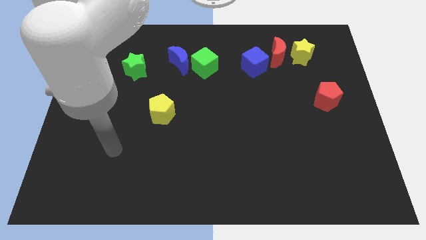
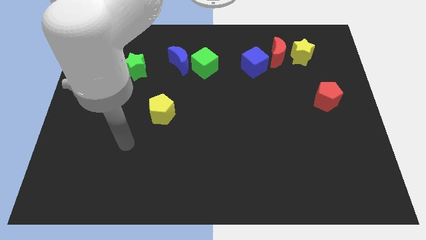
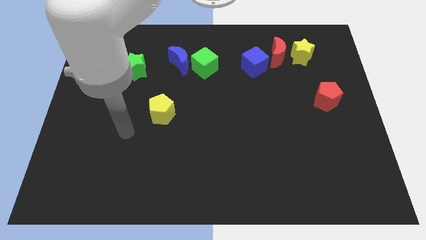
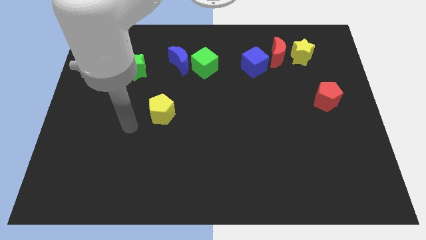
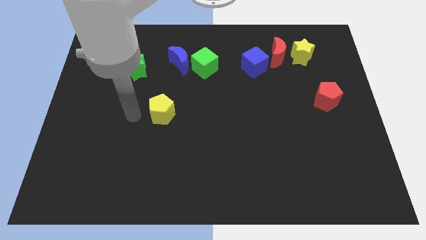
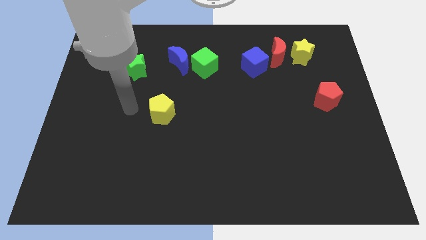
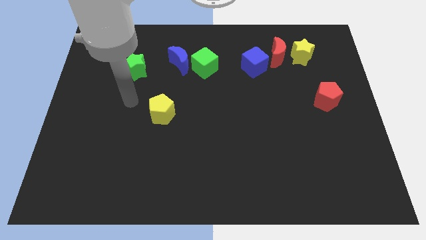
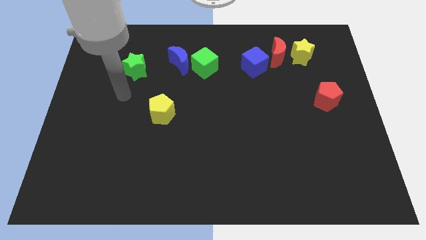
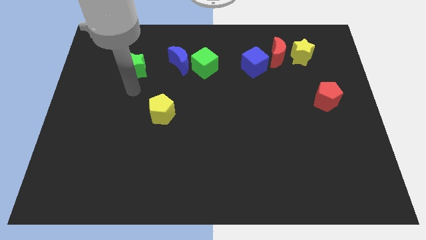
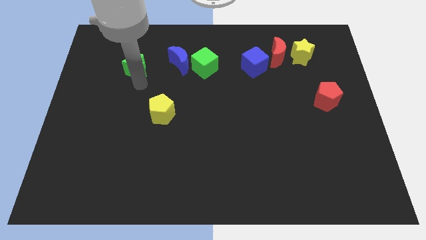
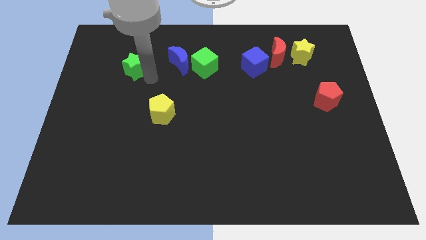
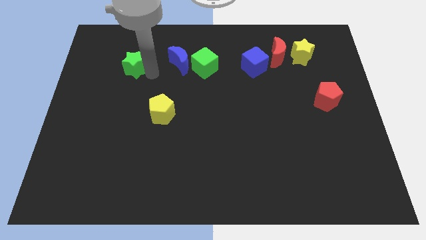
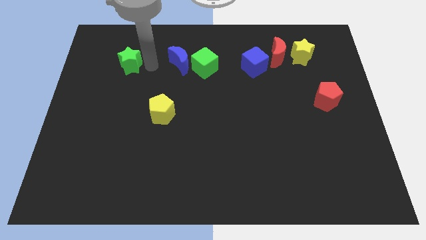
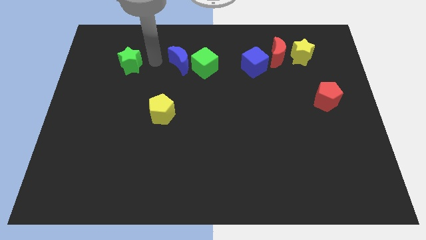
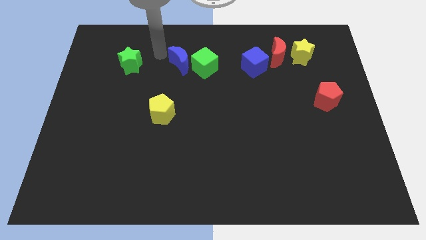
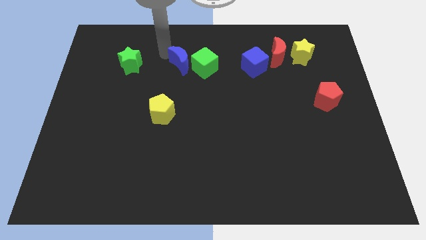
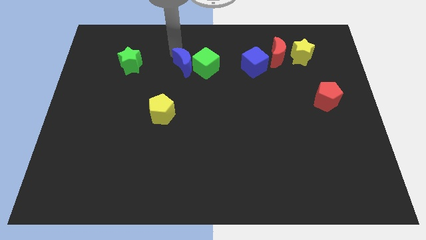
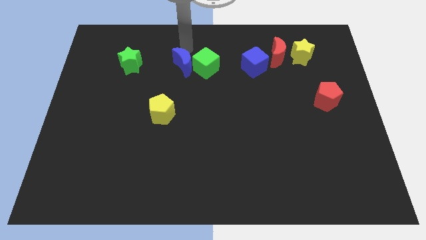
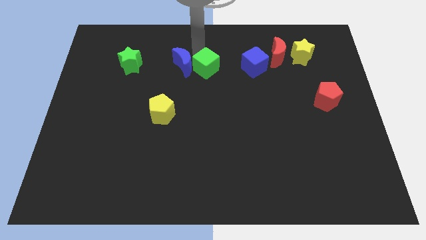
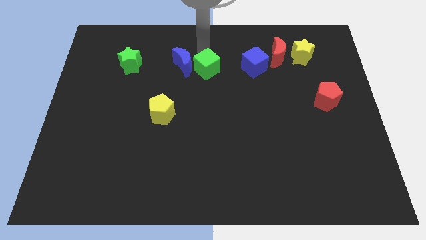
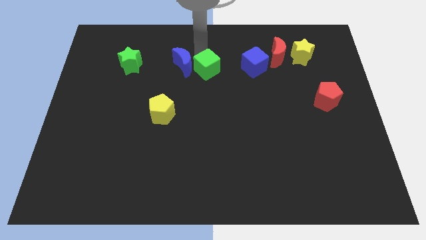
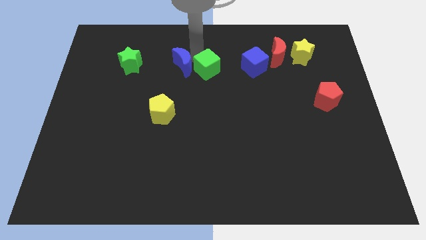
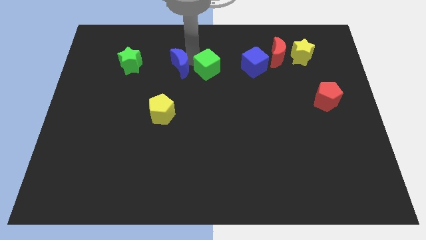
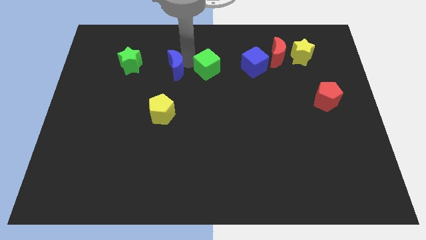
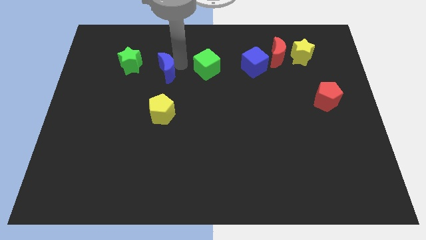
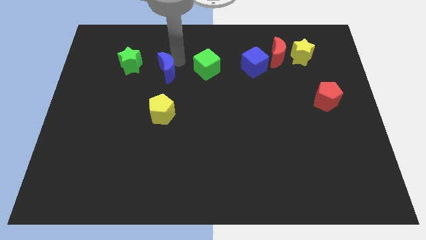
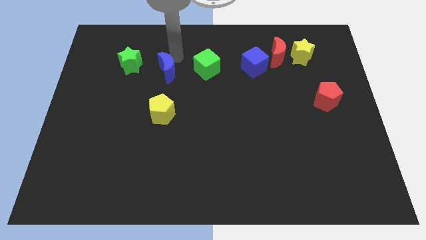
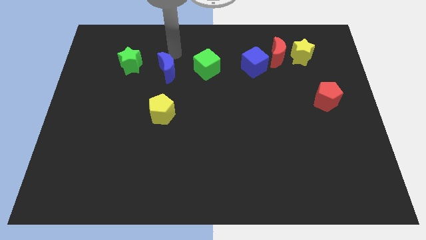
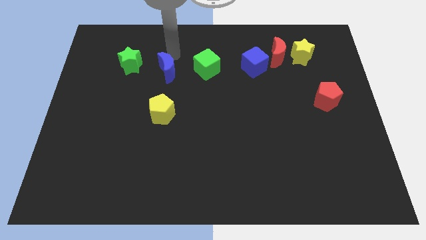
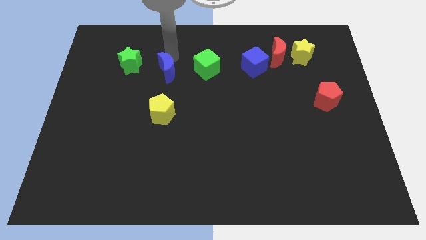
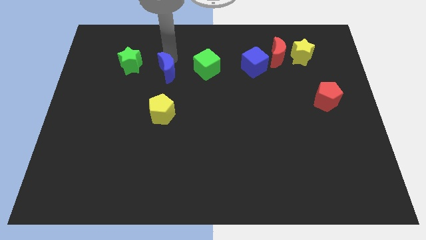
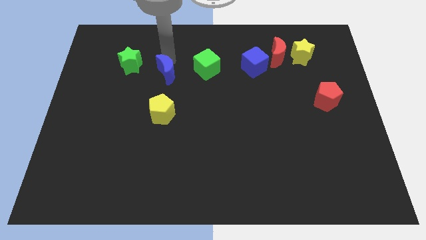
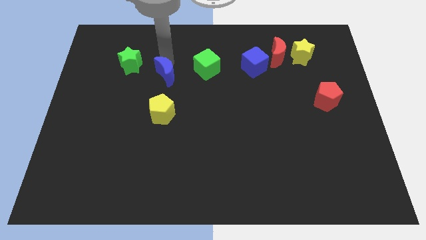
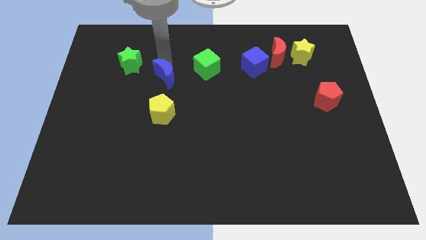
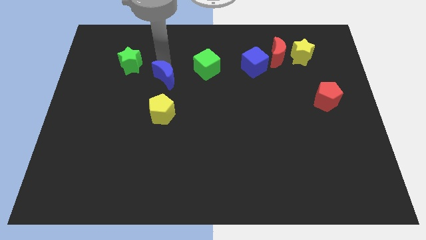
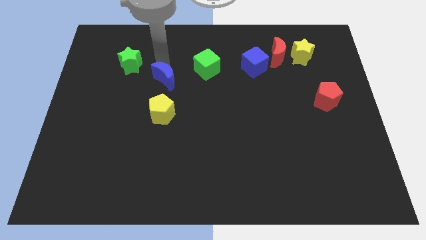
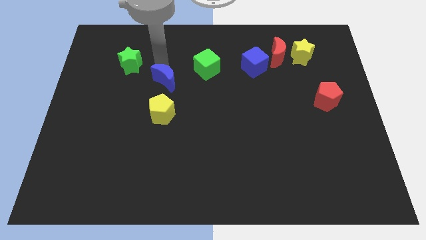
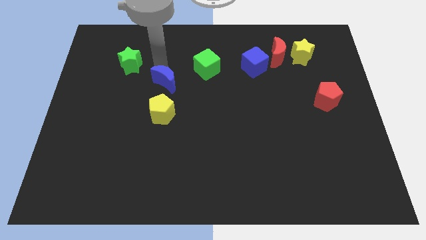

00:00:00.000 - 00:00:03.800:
push the blue moon diagonally downwards and left a little

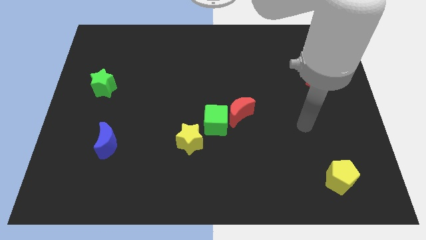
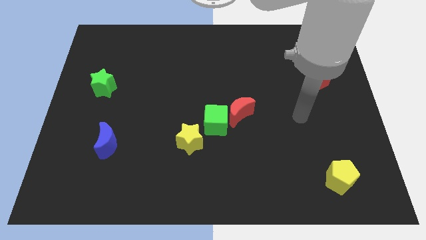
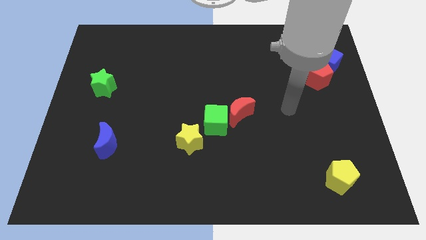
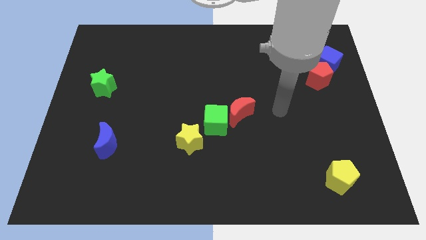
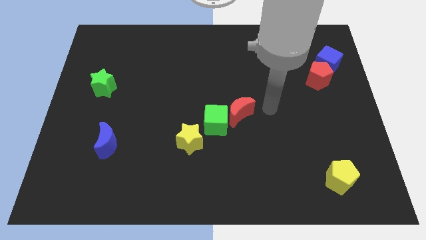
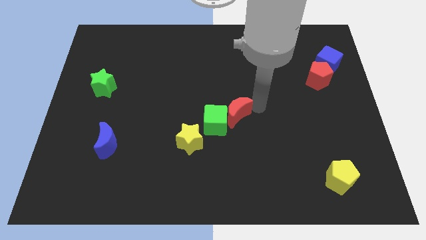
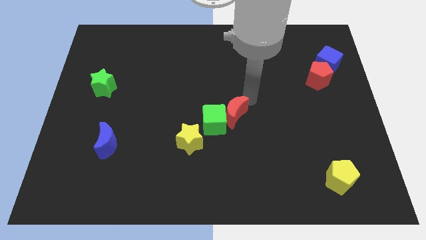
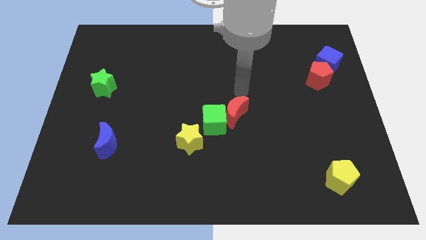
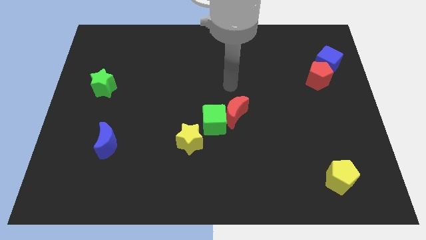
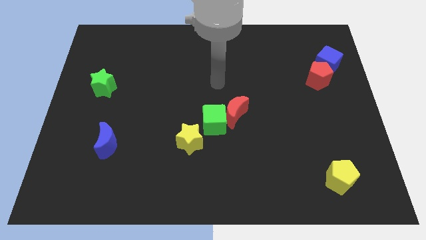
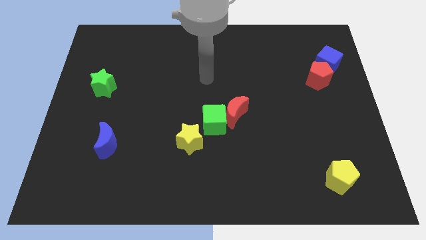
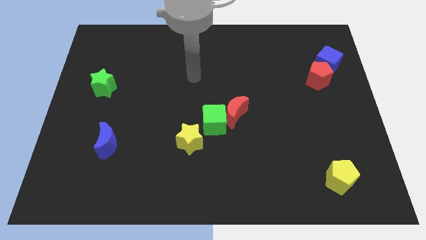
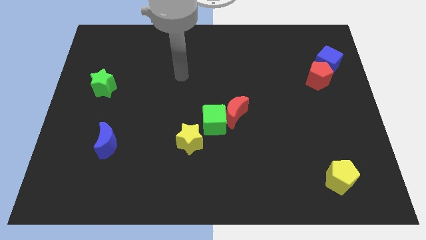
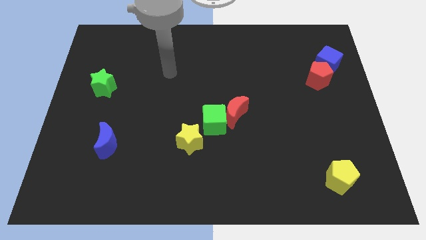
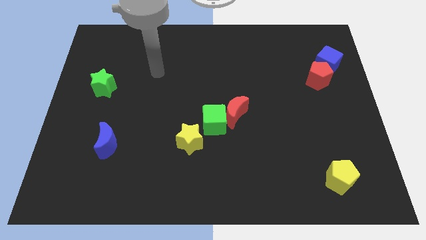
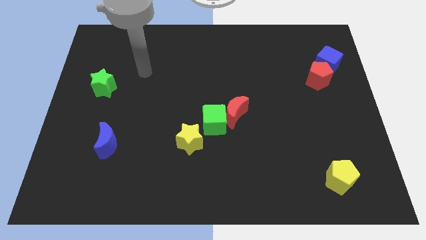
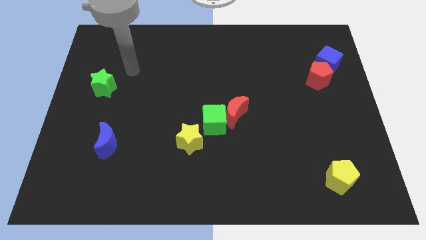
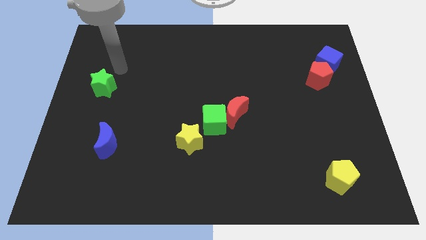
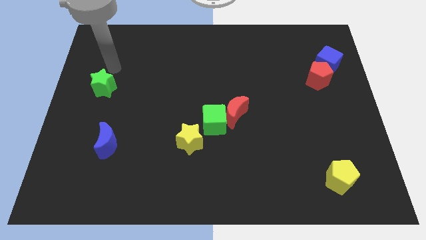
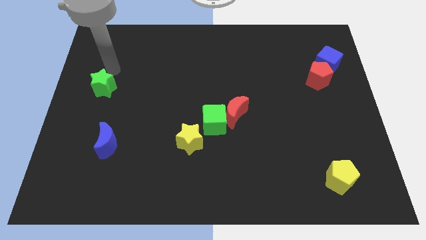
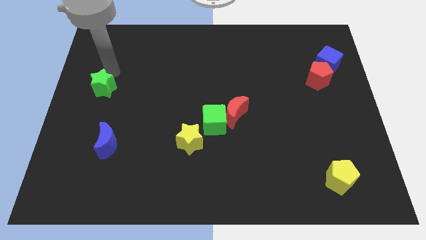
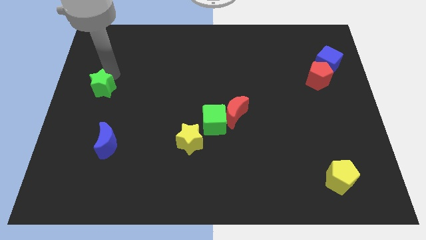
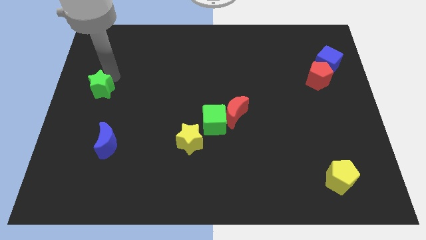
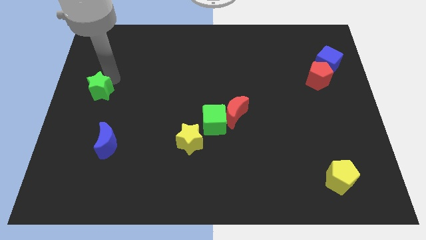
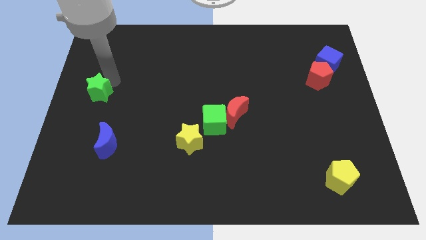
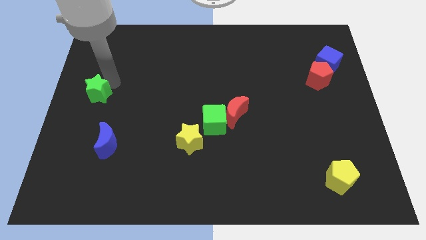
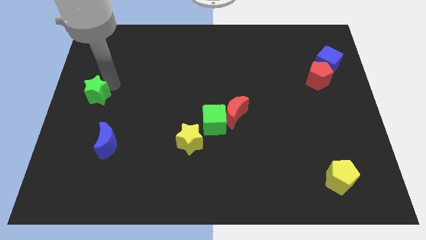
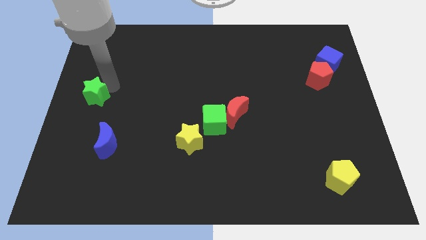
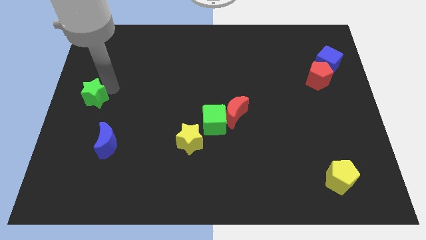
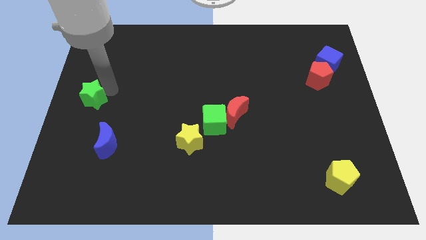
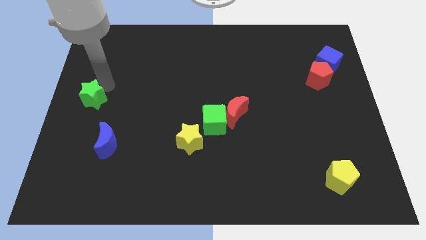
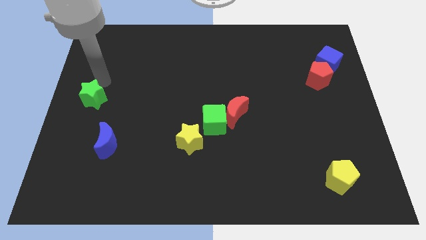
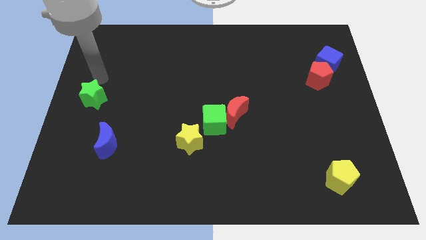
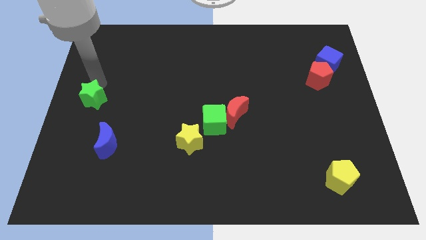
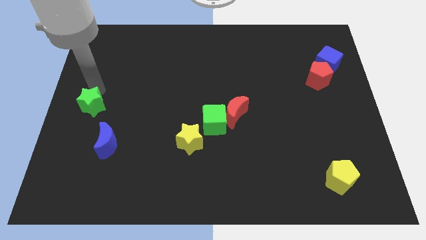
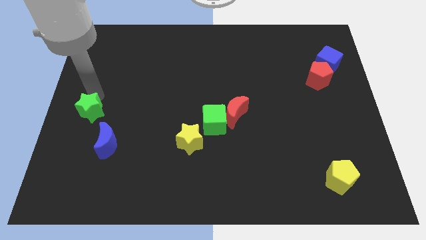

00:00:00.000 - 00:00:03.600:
slide the green star slightly down

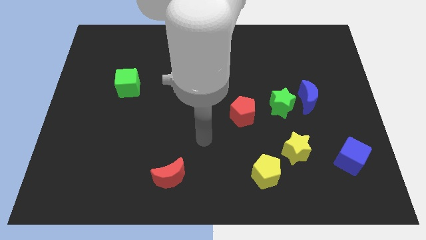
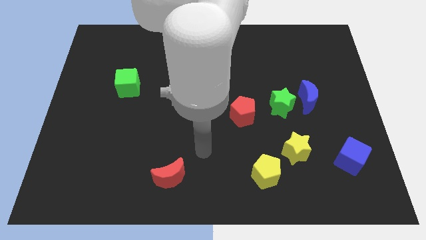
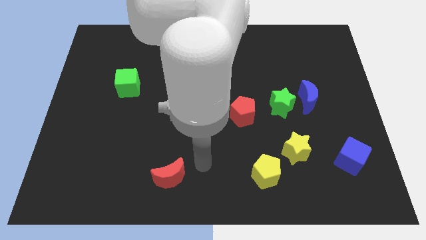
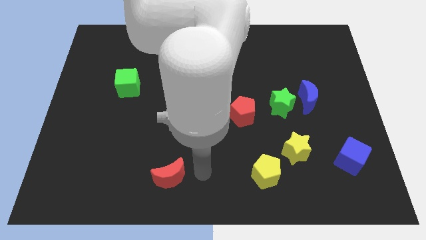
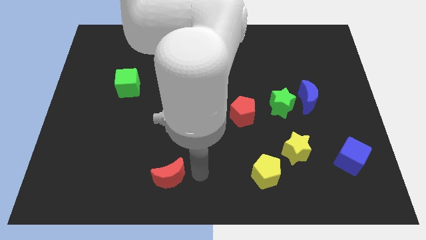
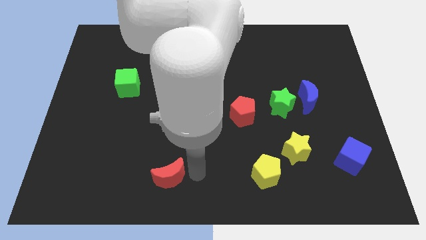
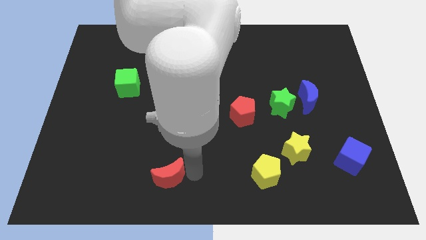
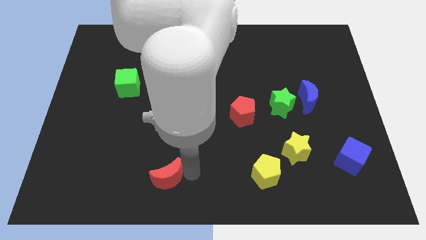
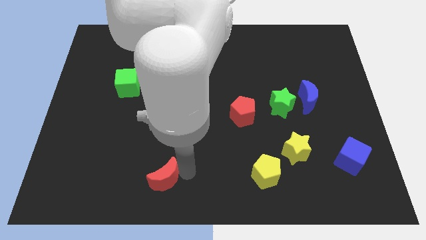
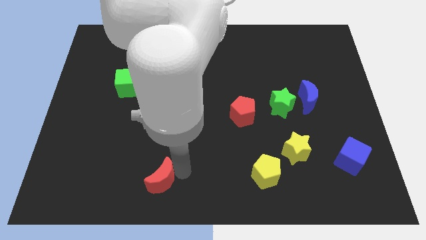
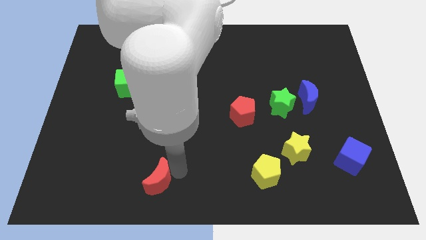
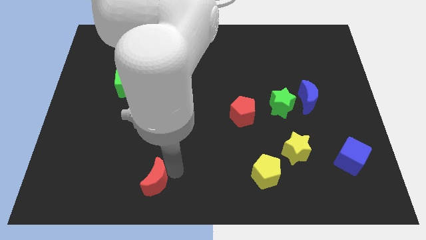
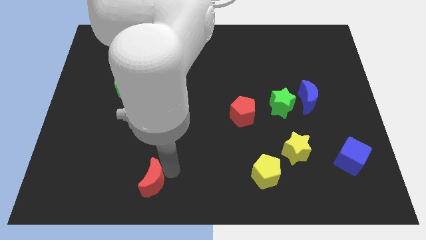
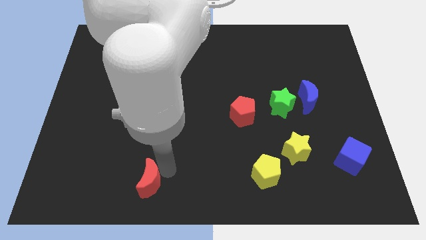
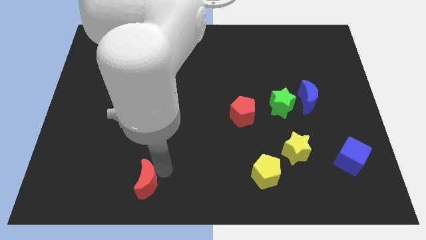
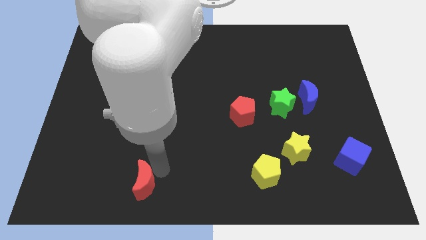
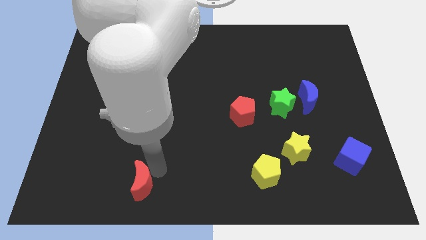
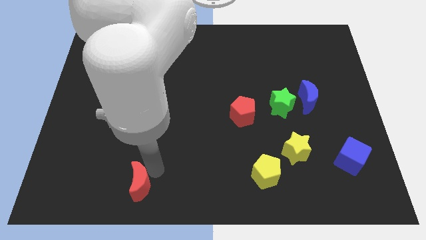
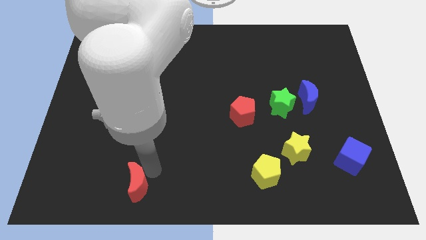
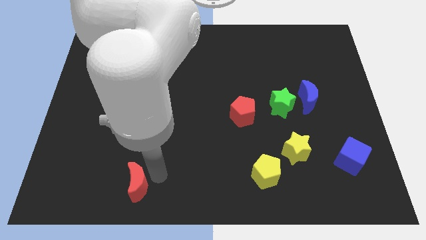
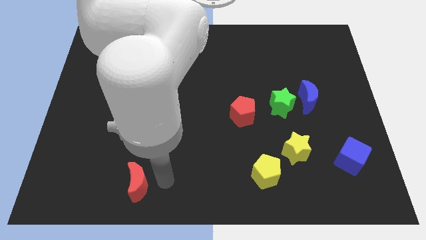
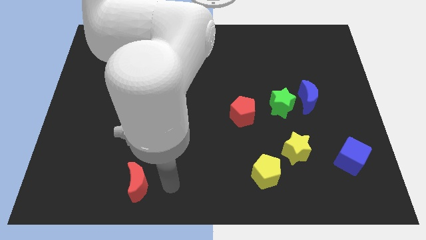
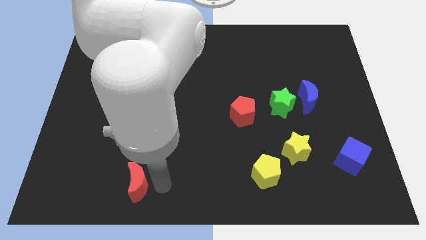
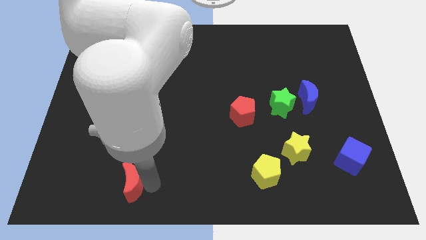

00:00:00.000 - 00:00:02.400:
slightly move the red moon left
